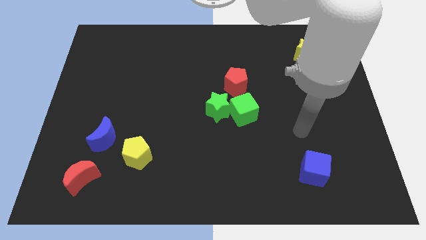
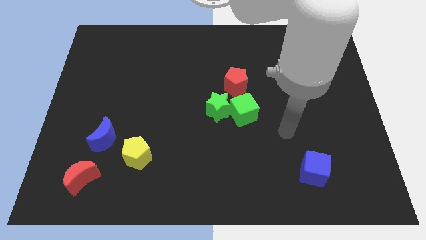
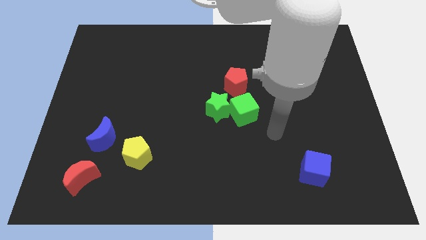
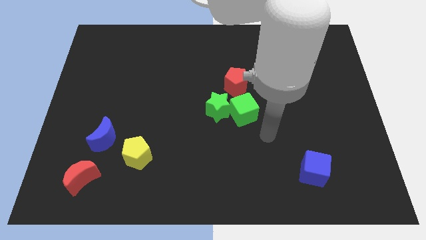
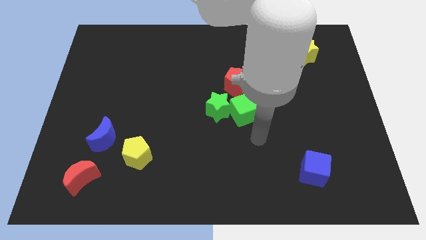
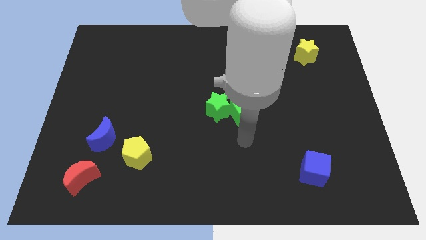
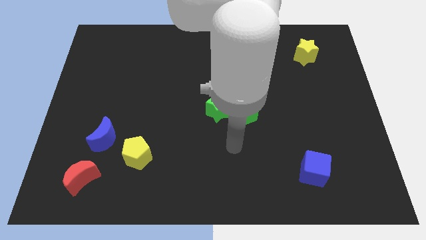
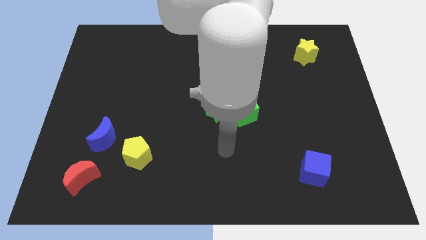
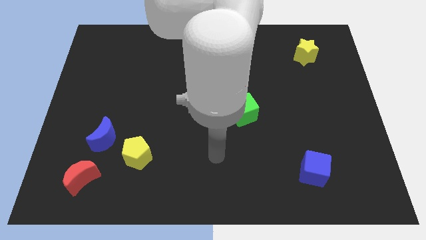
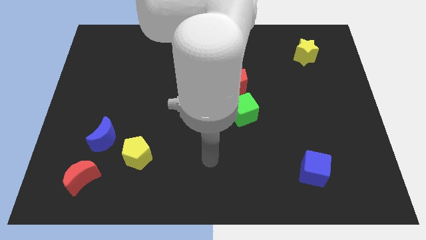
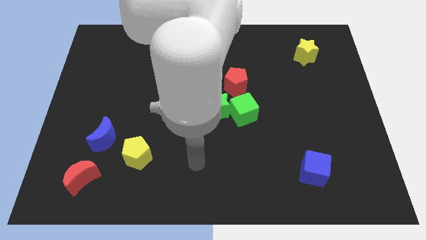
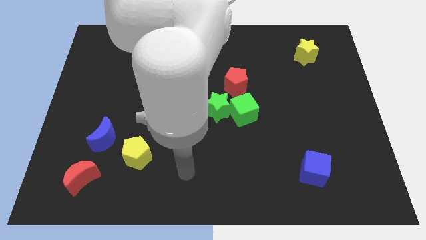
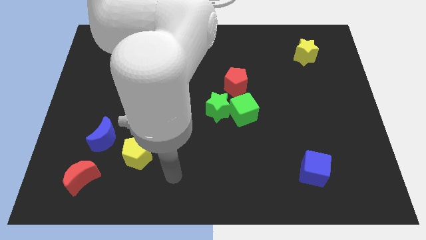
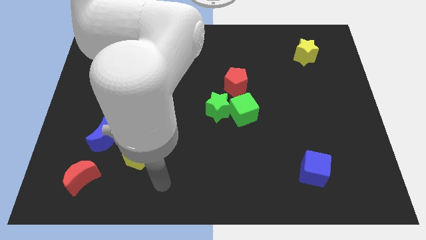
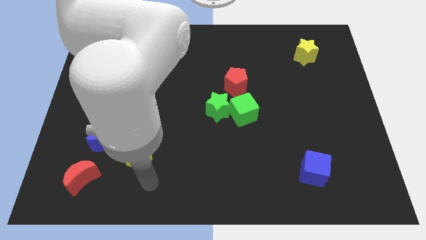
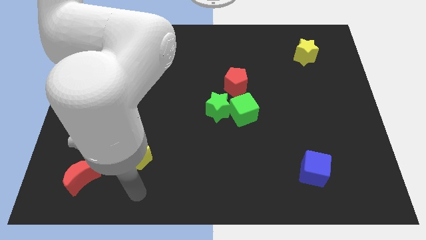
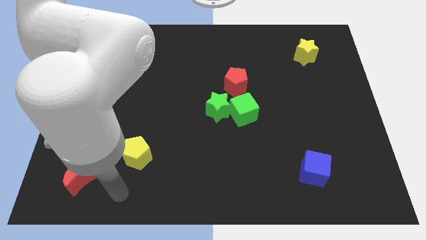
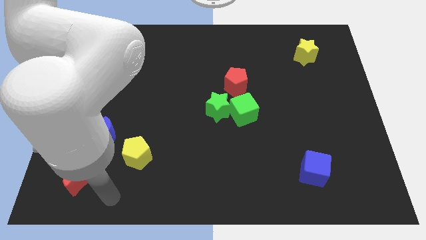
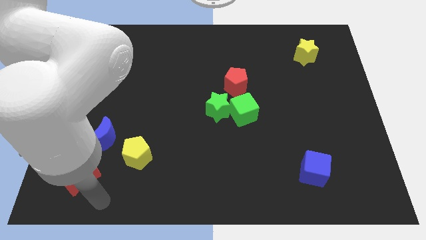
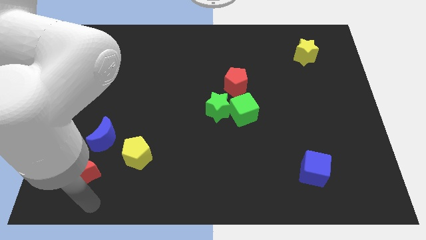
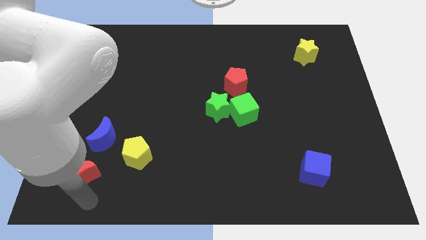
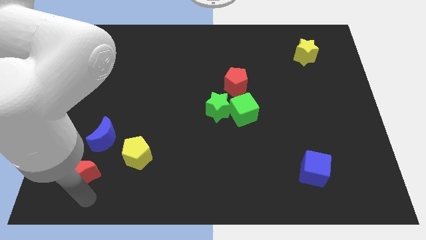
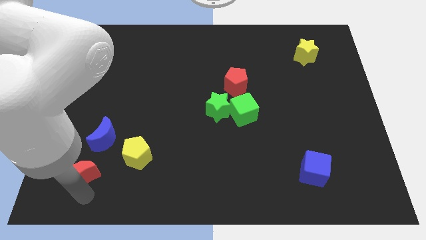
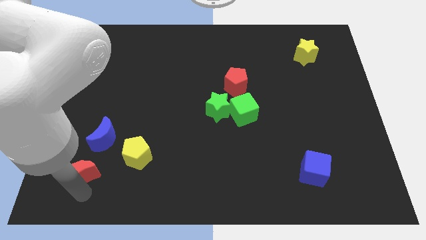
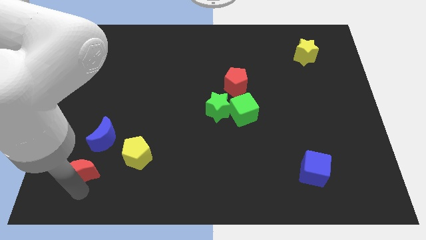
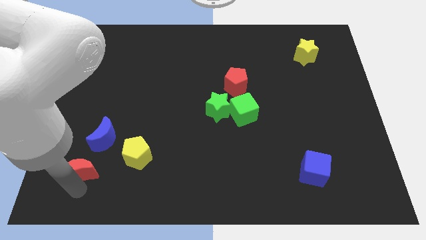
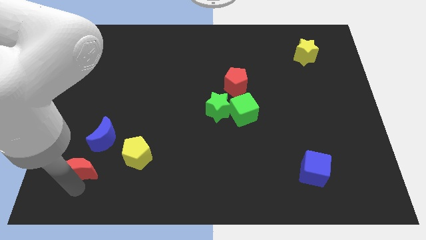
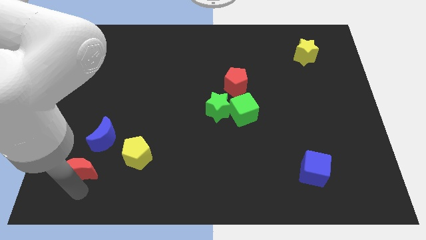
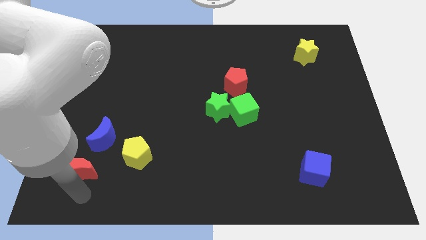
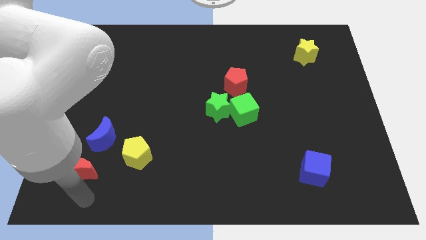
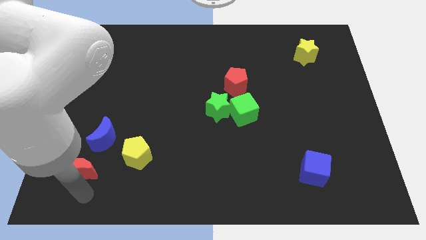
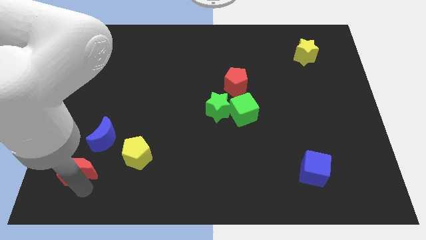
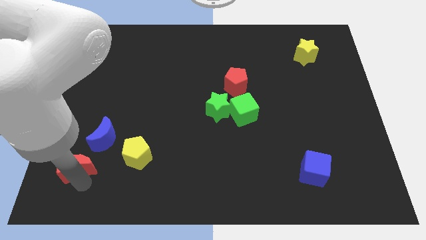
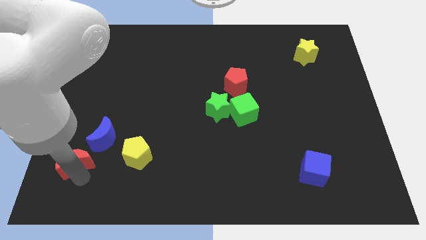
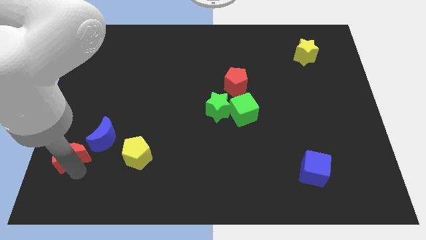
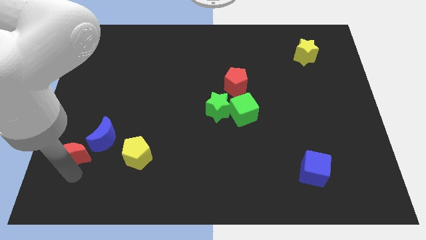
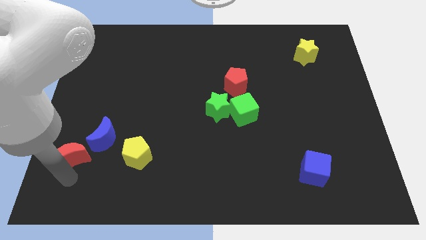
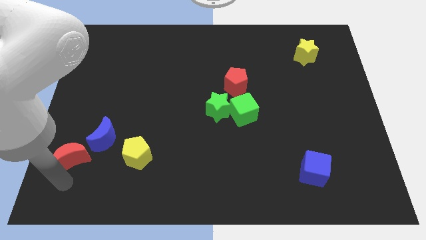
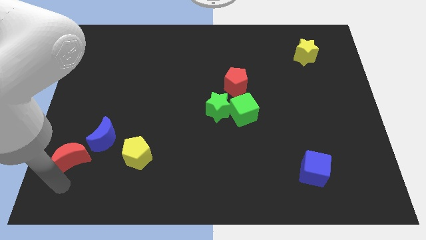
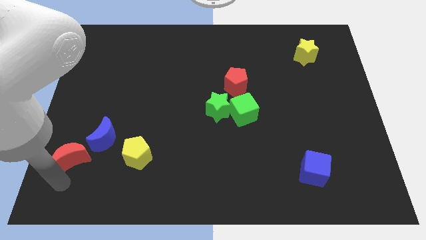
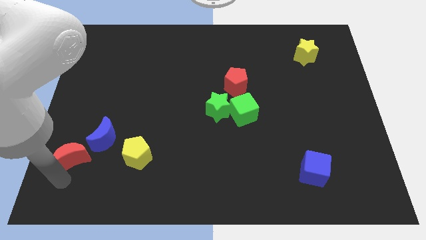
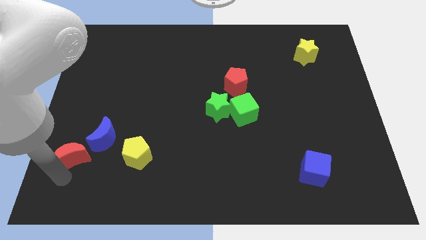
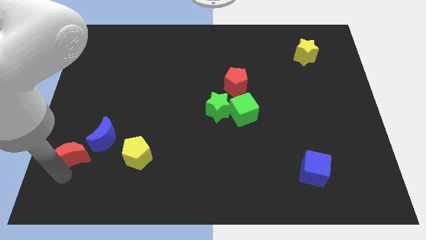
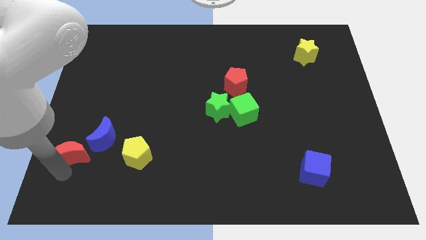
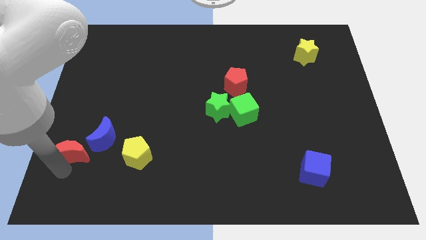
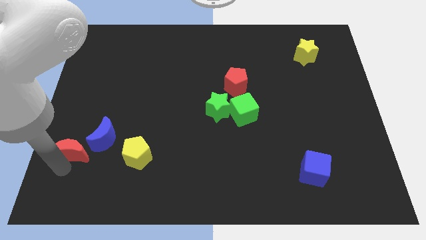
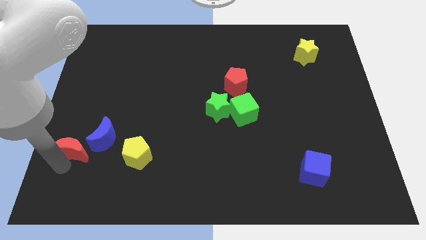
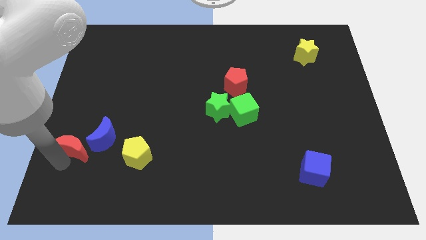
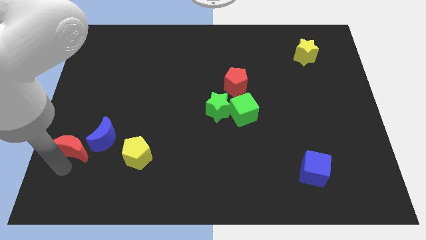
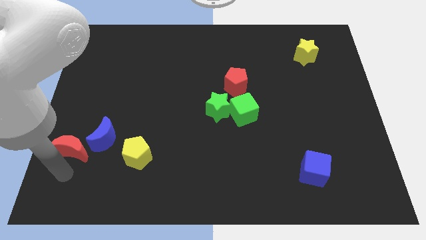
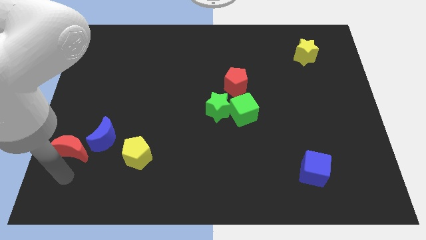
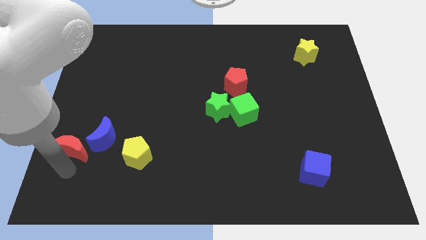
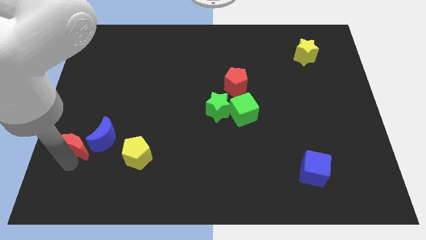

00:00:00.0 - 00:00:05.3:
slightly push the red moon up

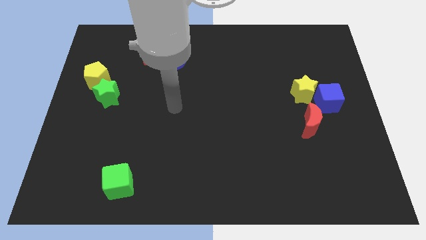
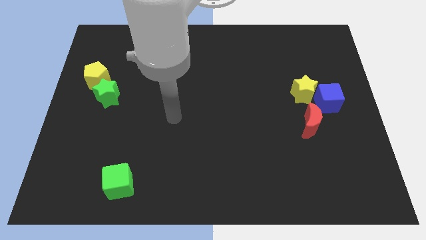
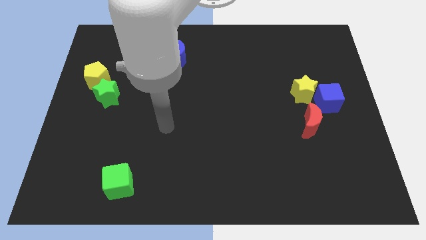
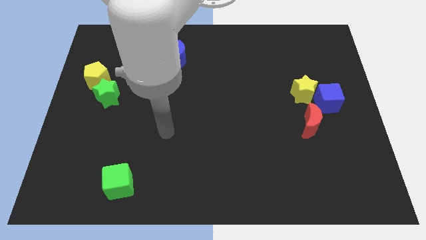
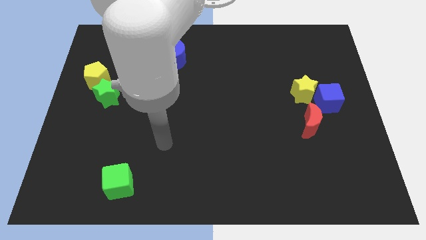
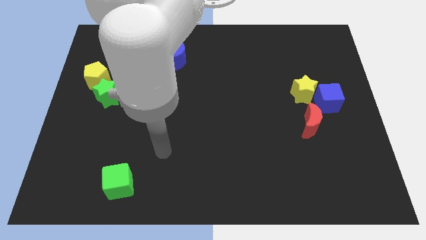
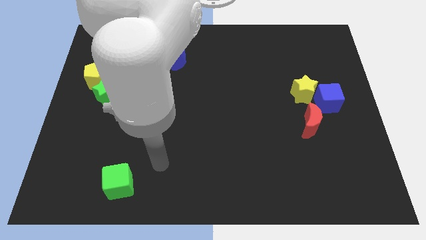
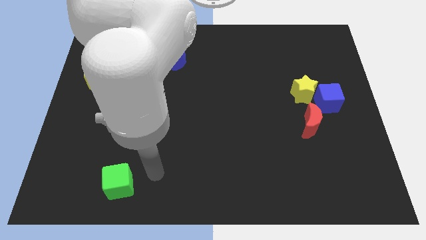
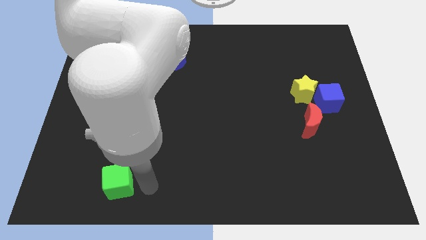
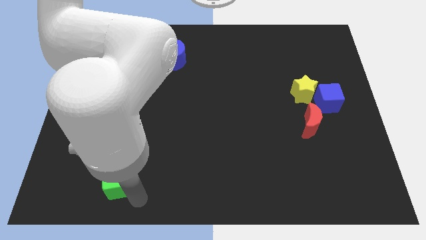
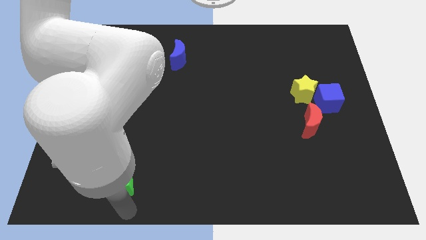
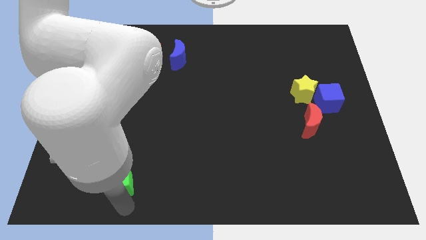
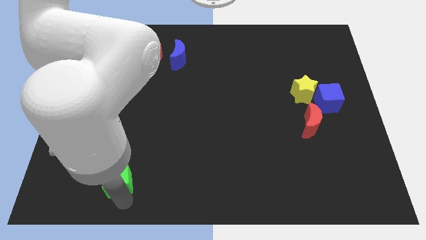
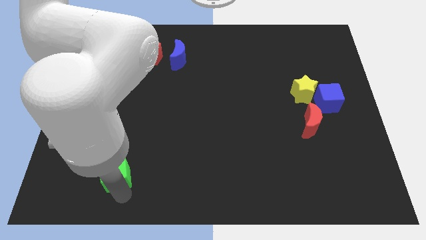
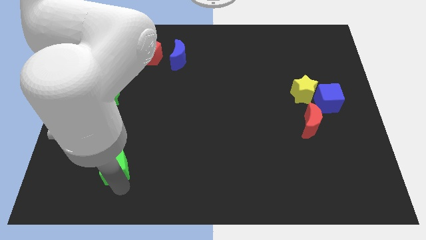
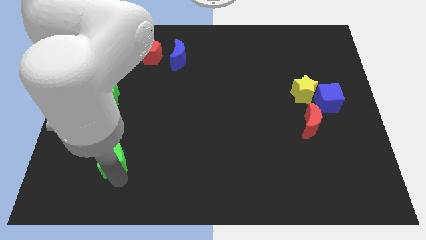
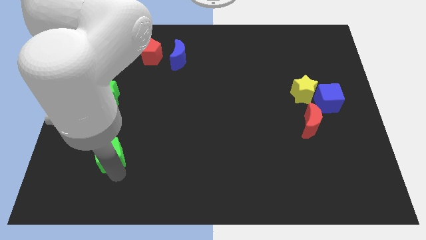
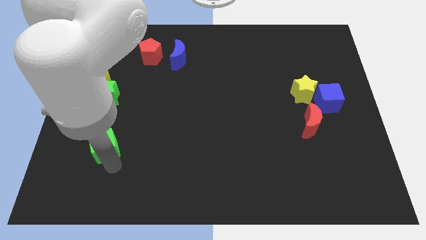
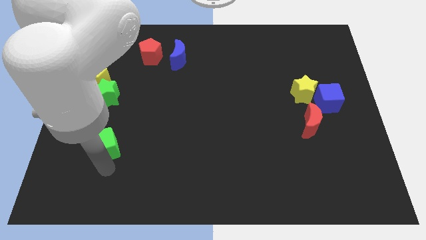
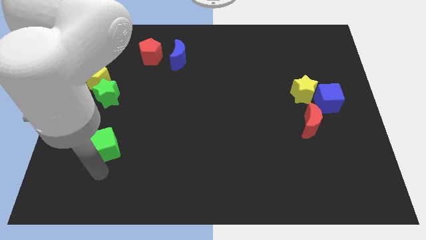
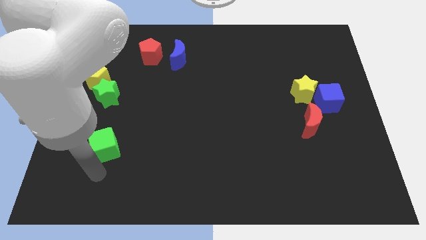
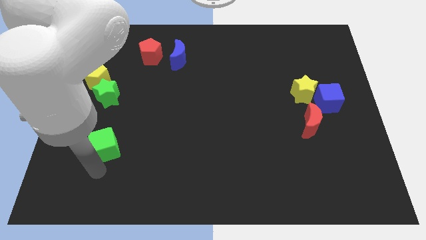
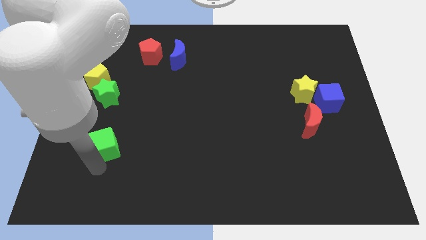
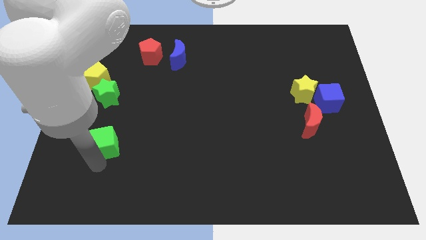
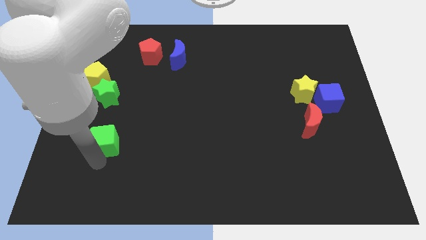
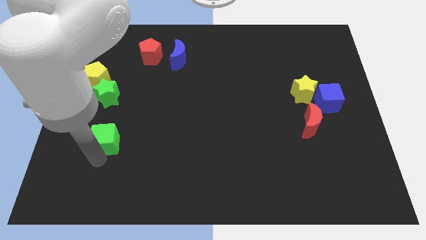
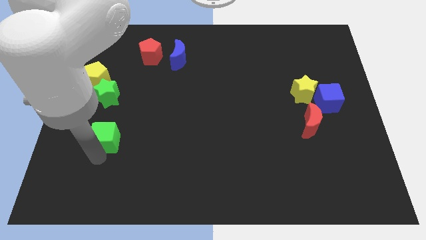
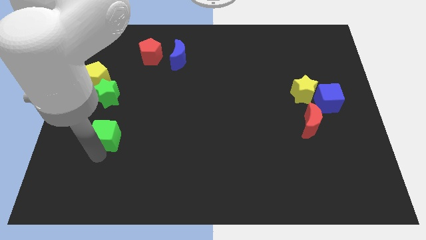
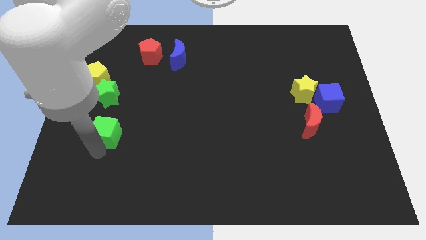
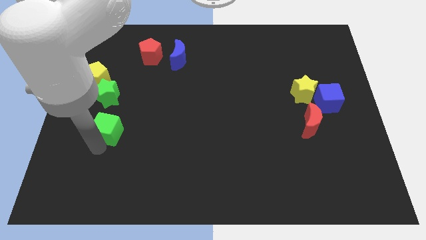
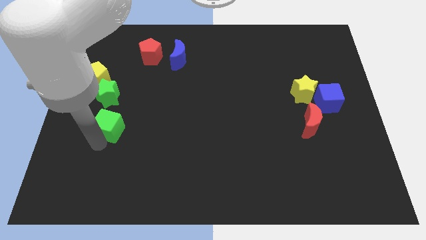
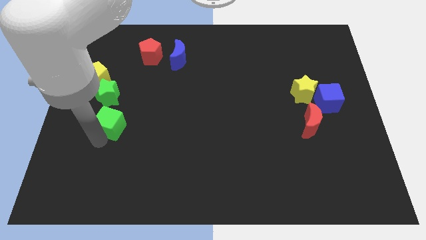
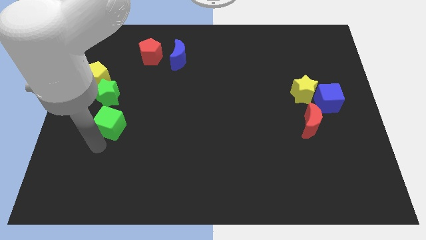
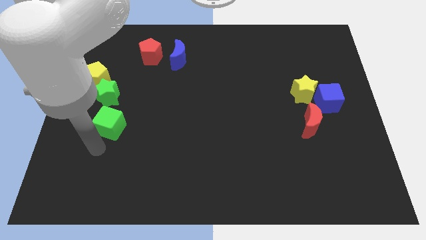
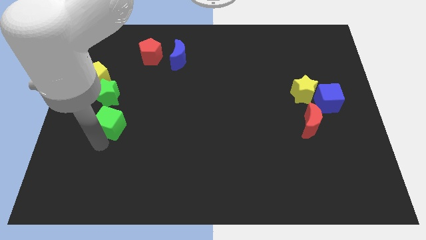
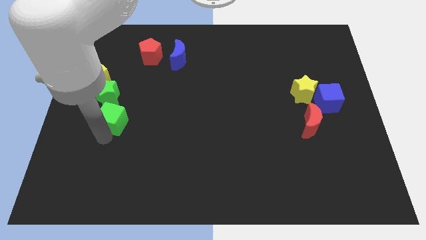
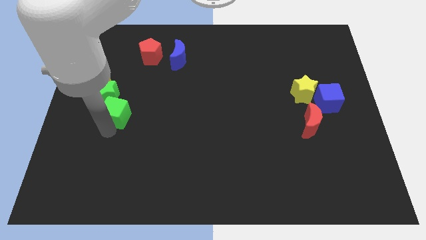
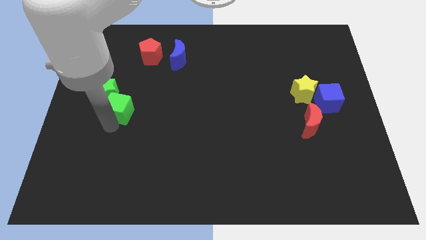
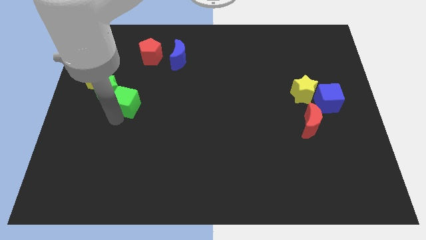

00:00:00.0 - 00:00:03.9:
move the green cube upwards
